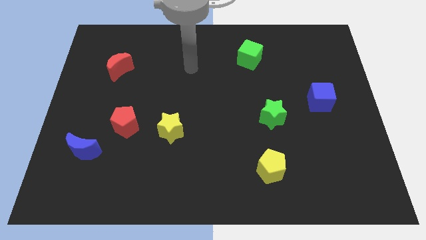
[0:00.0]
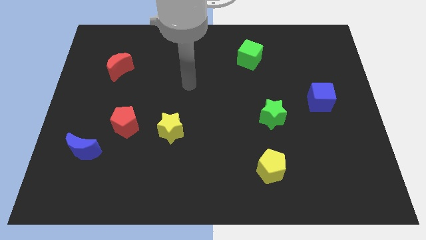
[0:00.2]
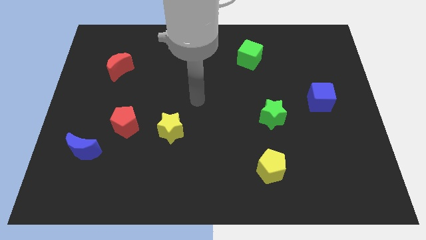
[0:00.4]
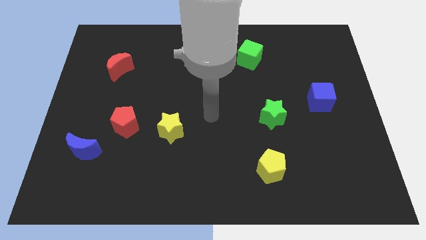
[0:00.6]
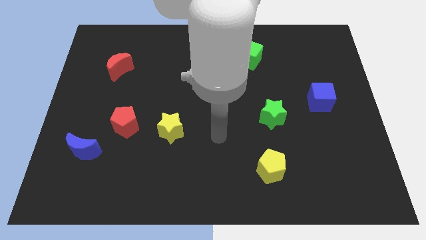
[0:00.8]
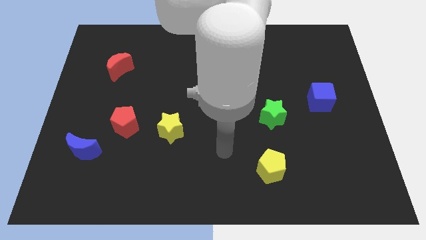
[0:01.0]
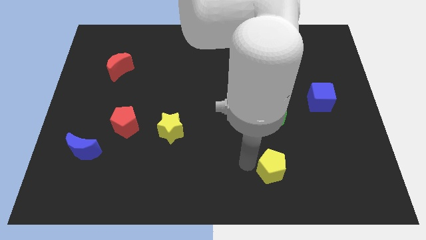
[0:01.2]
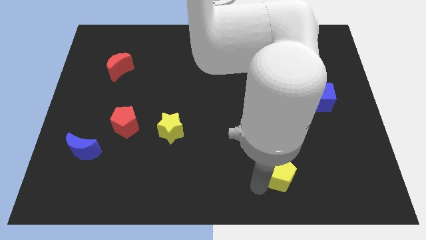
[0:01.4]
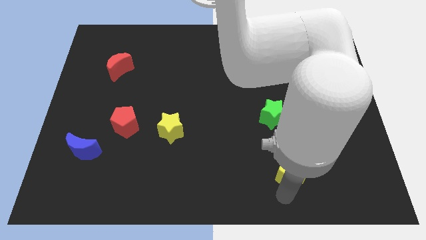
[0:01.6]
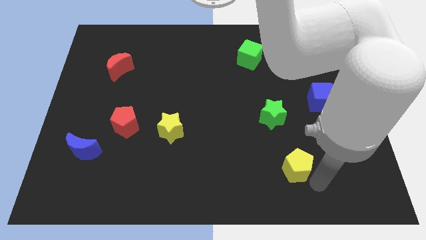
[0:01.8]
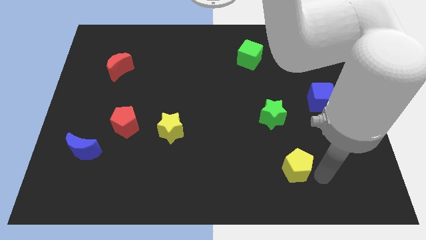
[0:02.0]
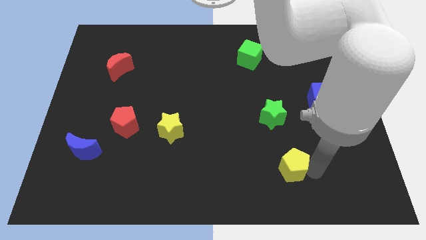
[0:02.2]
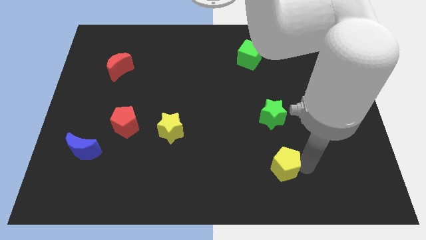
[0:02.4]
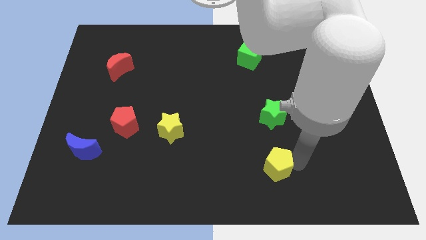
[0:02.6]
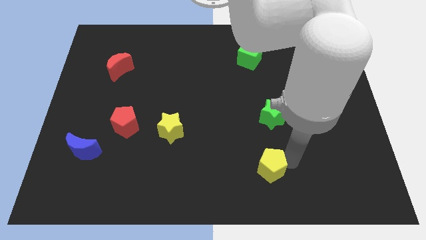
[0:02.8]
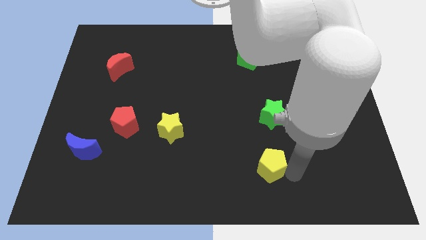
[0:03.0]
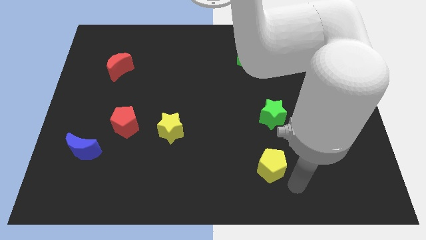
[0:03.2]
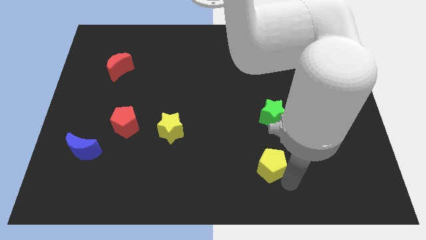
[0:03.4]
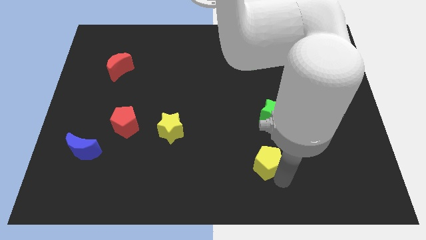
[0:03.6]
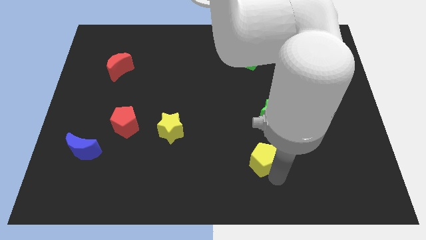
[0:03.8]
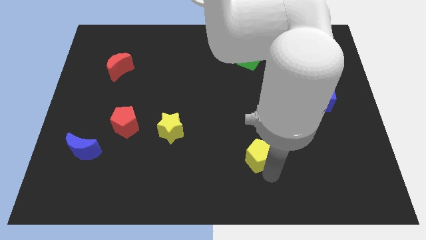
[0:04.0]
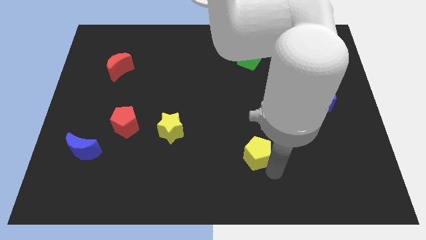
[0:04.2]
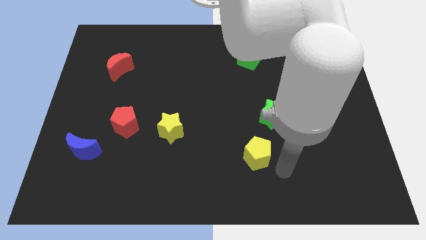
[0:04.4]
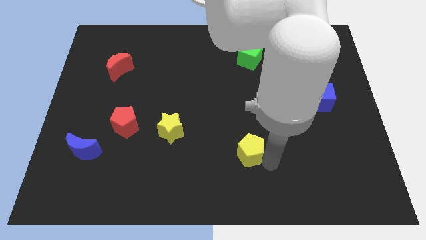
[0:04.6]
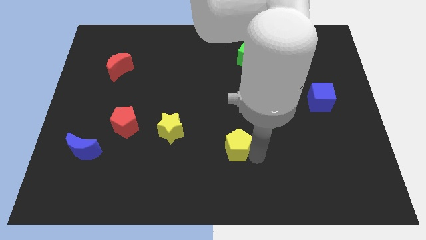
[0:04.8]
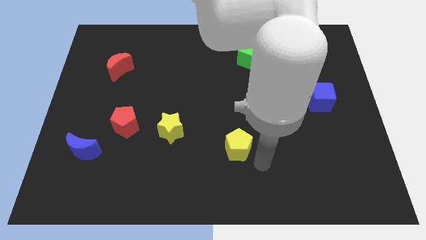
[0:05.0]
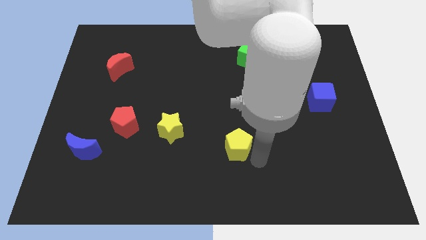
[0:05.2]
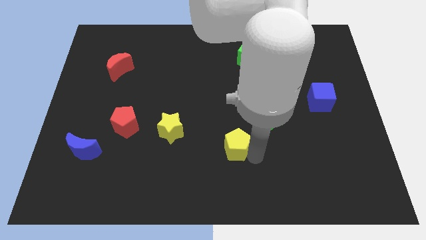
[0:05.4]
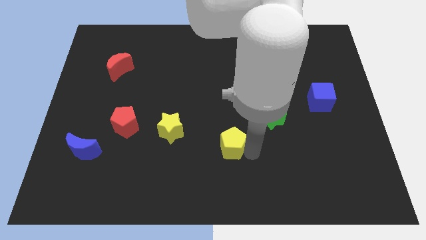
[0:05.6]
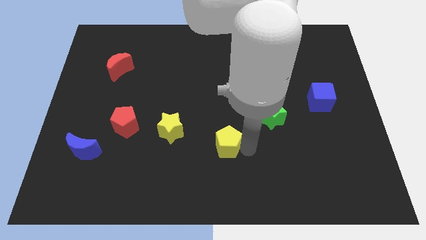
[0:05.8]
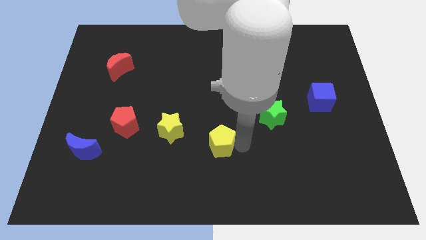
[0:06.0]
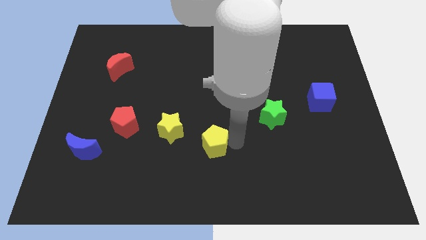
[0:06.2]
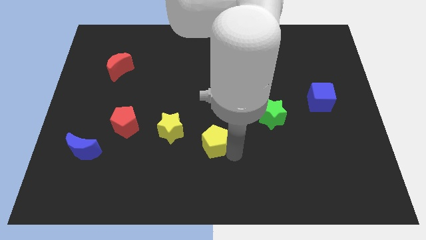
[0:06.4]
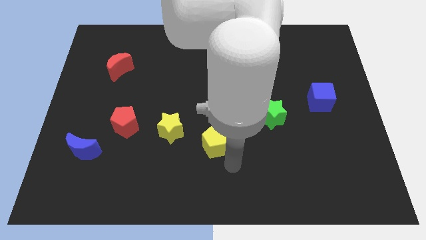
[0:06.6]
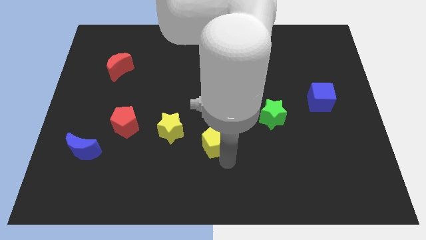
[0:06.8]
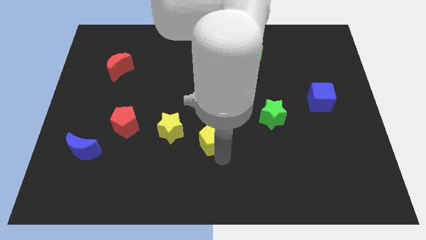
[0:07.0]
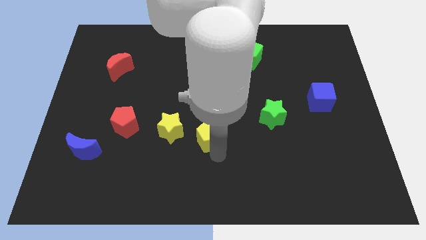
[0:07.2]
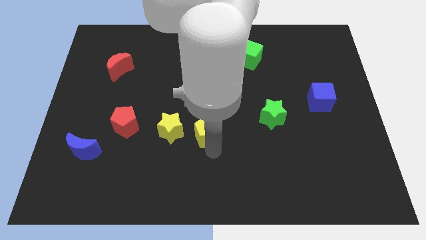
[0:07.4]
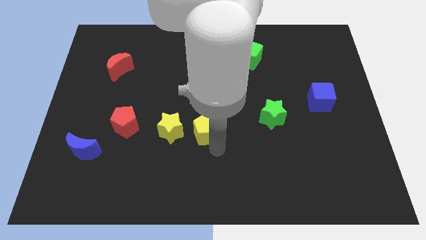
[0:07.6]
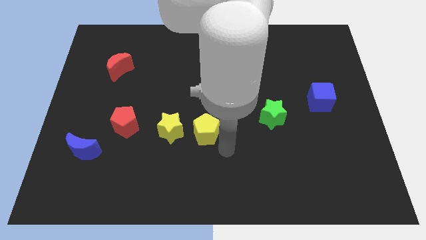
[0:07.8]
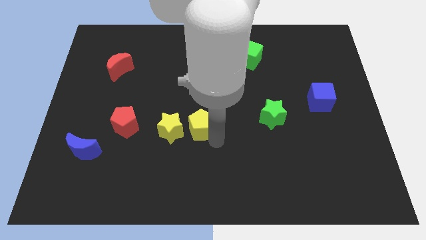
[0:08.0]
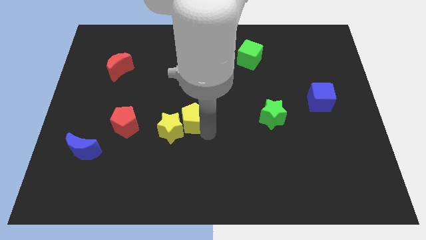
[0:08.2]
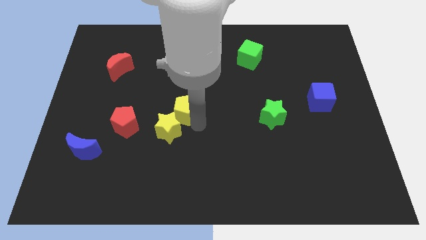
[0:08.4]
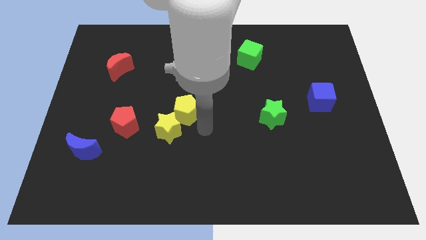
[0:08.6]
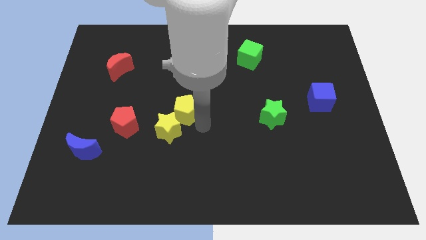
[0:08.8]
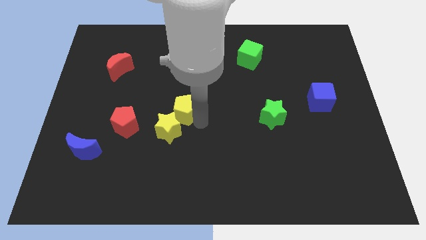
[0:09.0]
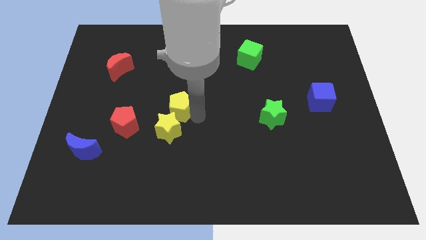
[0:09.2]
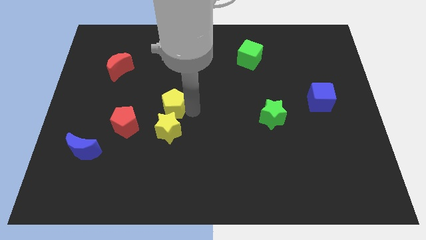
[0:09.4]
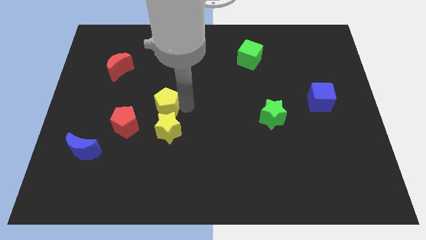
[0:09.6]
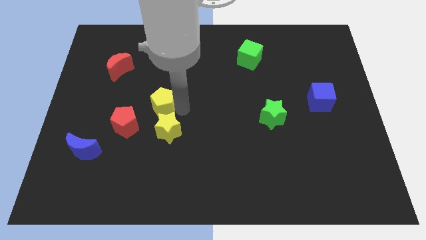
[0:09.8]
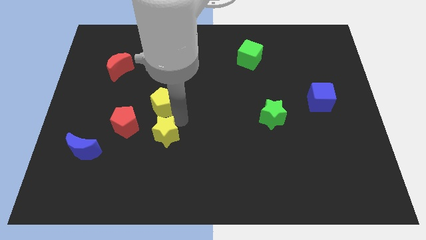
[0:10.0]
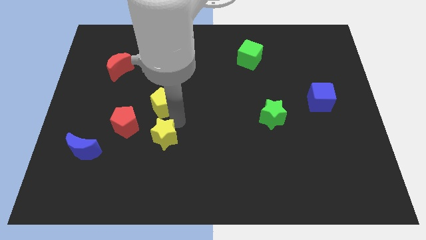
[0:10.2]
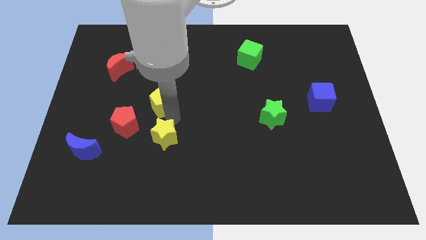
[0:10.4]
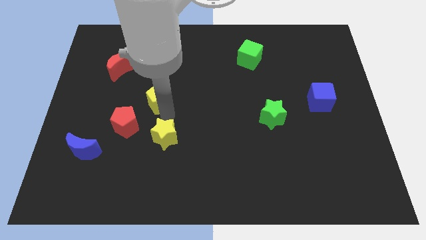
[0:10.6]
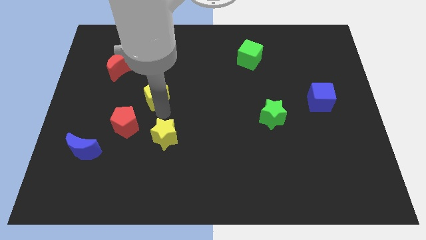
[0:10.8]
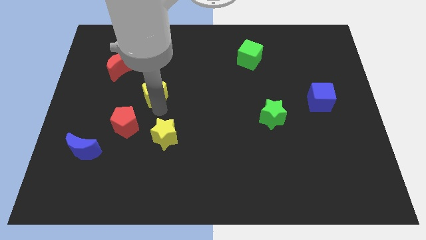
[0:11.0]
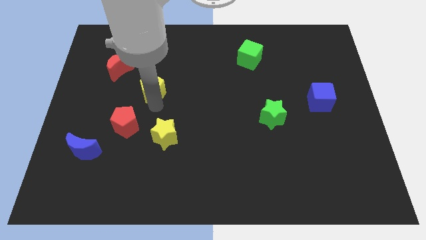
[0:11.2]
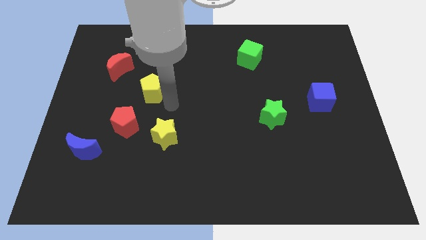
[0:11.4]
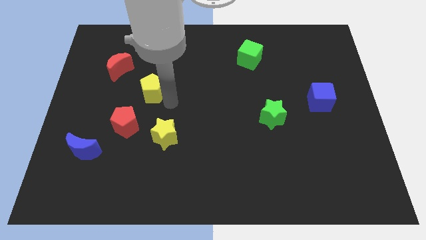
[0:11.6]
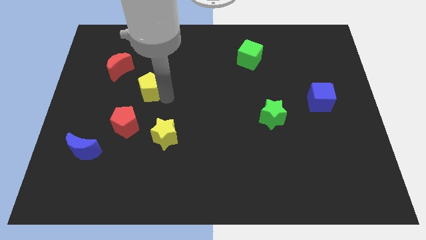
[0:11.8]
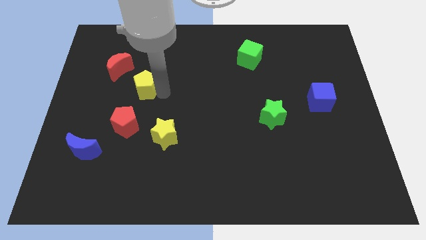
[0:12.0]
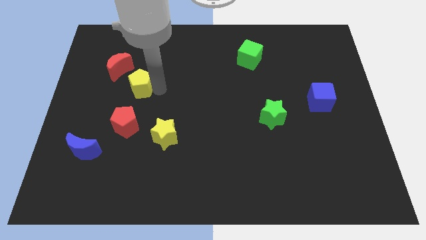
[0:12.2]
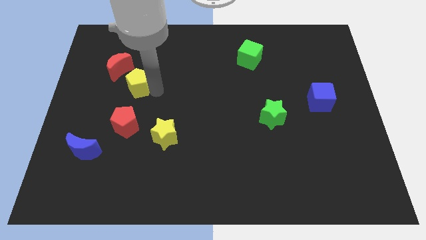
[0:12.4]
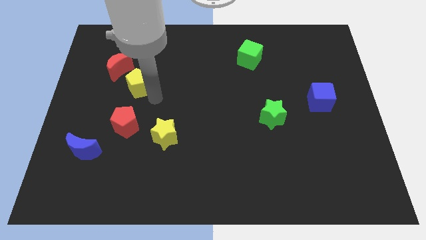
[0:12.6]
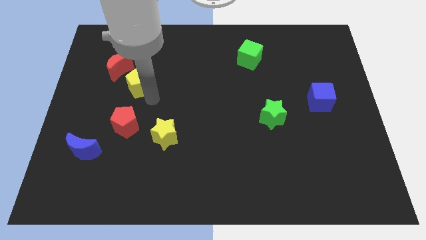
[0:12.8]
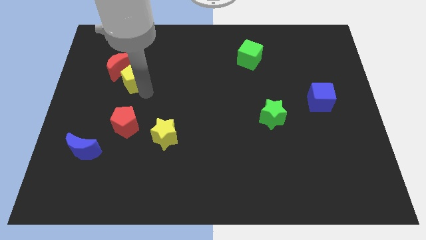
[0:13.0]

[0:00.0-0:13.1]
put the yellow pentagon next to the red moon

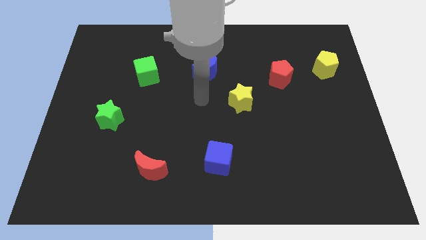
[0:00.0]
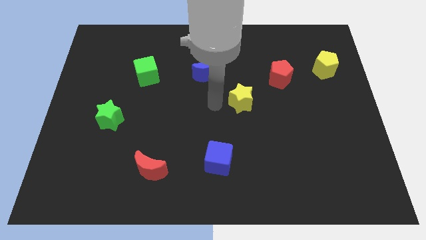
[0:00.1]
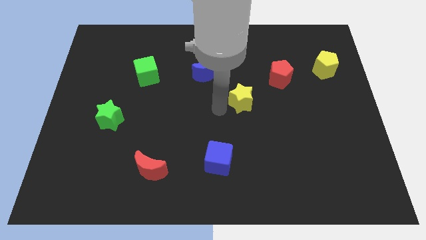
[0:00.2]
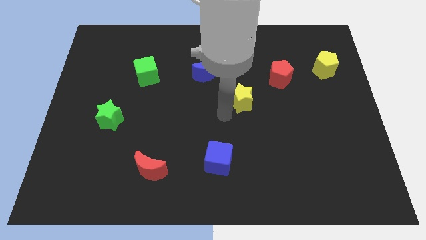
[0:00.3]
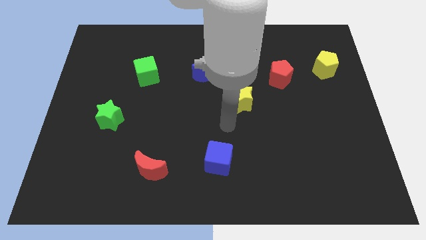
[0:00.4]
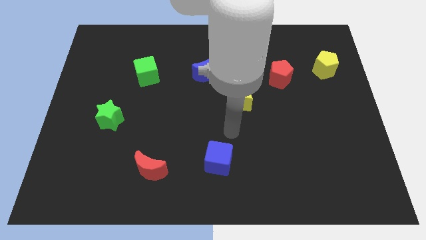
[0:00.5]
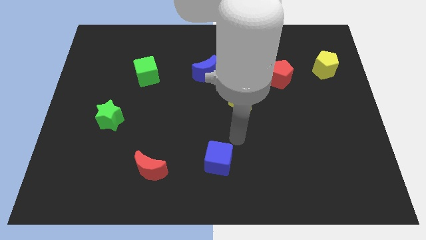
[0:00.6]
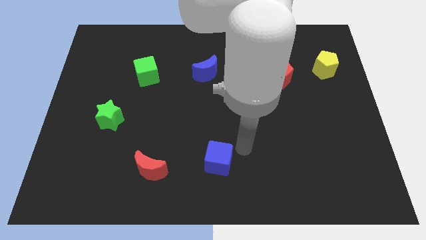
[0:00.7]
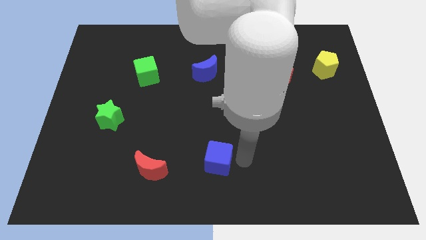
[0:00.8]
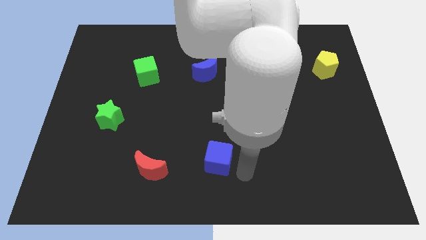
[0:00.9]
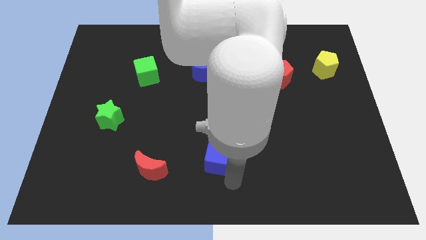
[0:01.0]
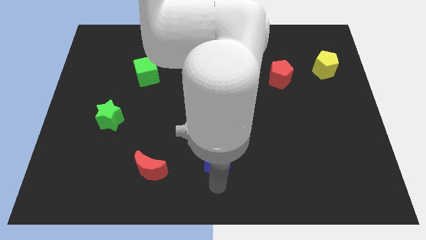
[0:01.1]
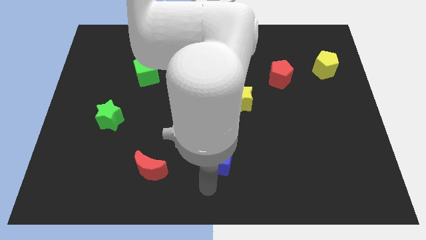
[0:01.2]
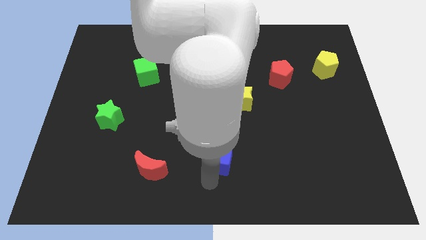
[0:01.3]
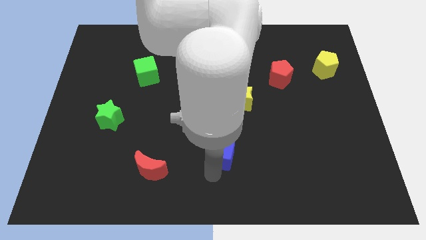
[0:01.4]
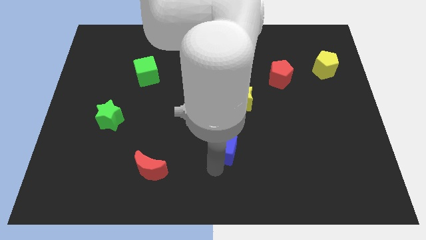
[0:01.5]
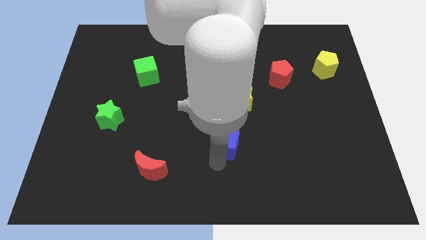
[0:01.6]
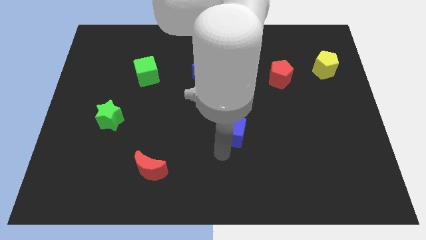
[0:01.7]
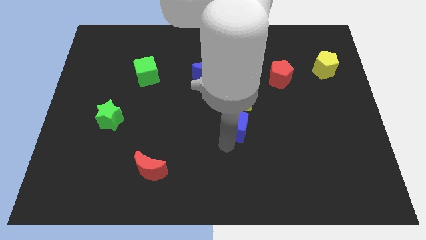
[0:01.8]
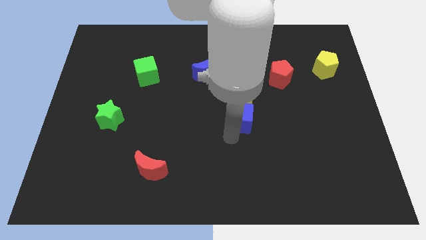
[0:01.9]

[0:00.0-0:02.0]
slide the blue cube towards the yellow star
